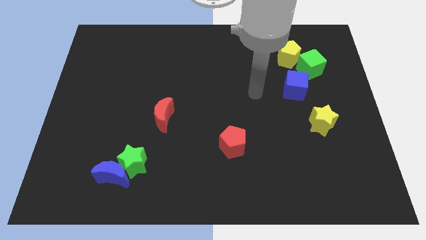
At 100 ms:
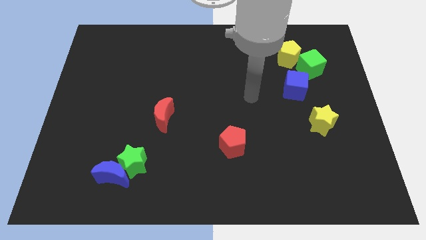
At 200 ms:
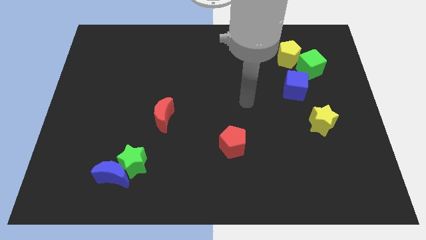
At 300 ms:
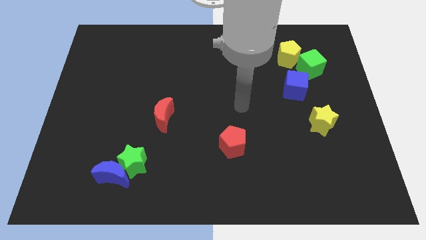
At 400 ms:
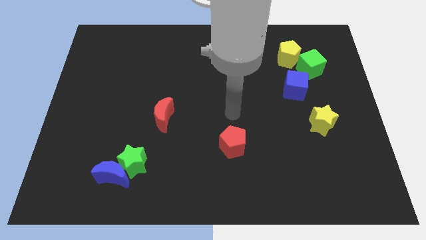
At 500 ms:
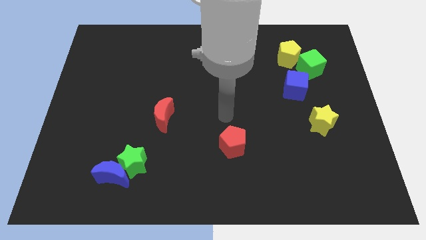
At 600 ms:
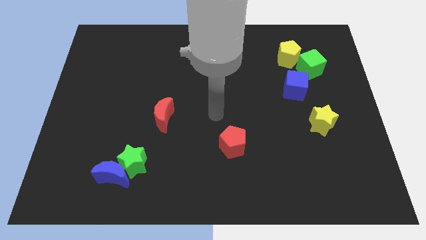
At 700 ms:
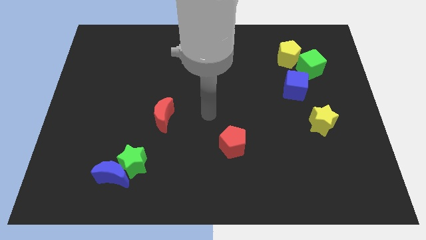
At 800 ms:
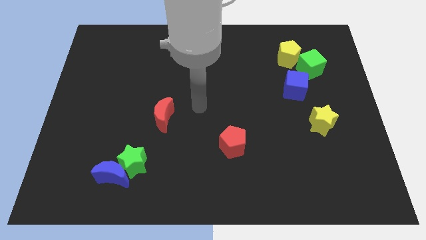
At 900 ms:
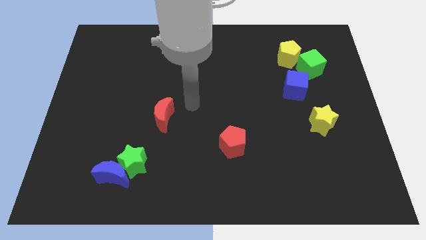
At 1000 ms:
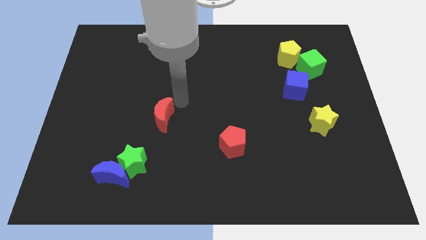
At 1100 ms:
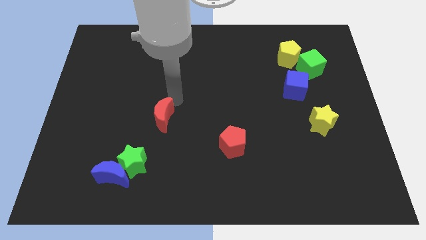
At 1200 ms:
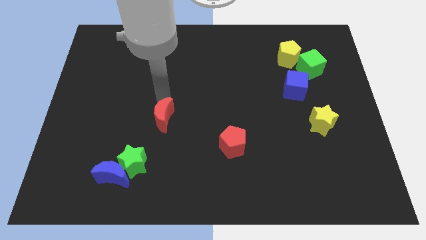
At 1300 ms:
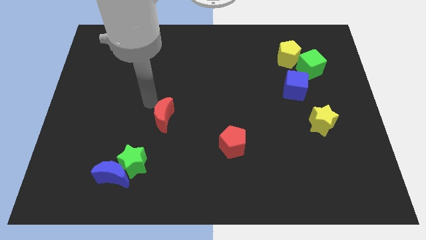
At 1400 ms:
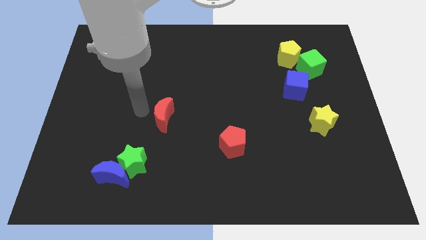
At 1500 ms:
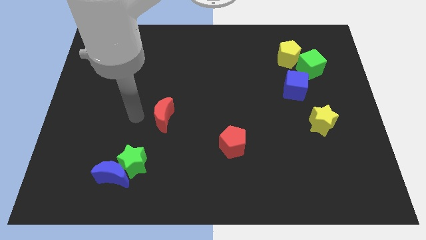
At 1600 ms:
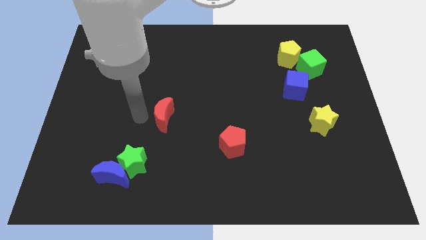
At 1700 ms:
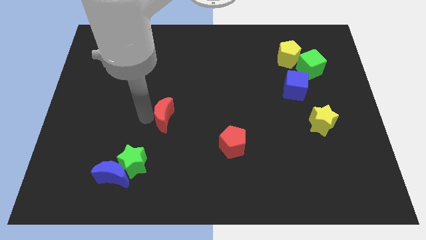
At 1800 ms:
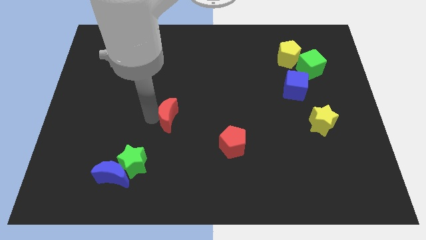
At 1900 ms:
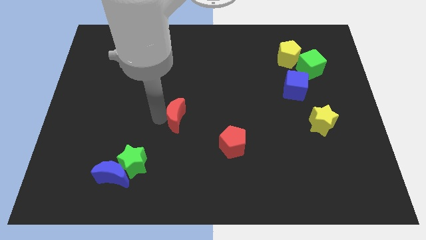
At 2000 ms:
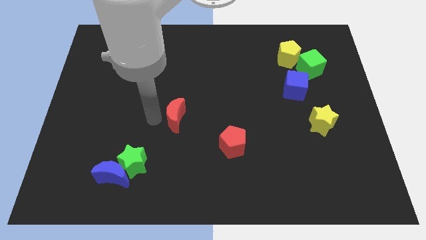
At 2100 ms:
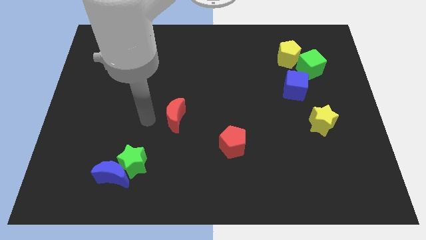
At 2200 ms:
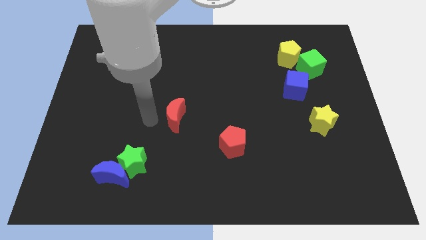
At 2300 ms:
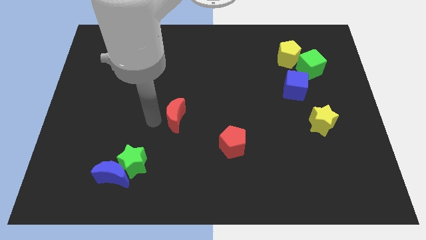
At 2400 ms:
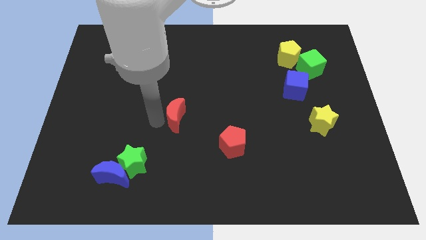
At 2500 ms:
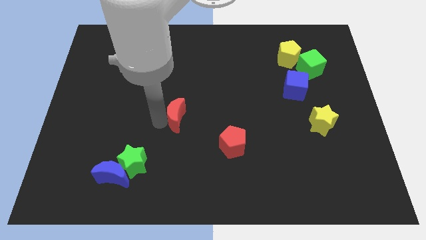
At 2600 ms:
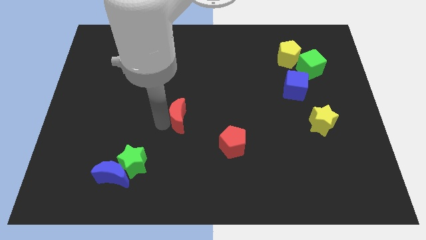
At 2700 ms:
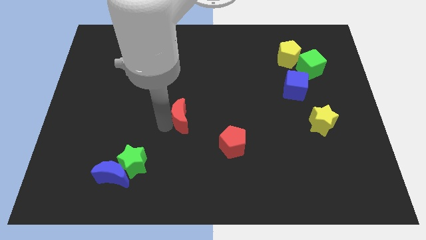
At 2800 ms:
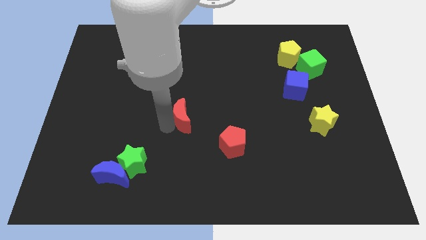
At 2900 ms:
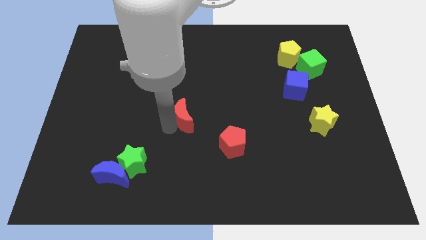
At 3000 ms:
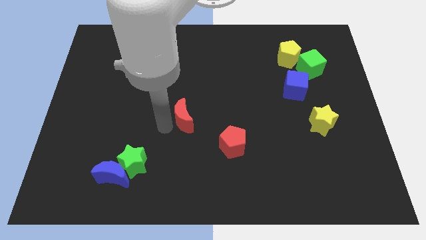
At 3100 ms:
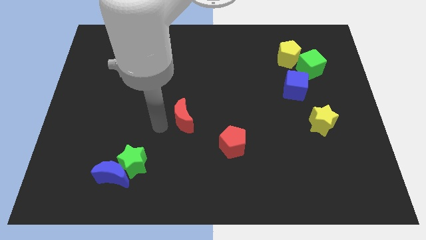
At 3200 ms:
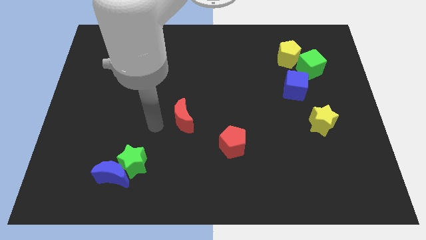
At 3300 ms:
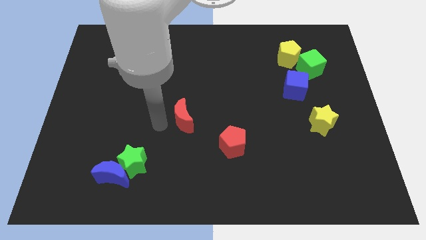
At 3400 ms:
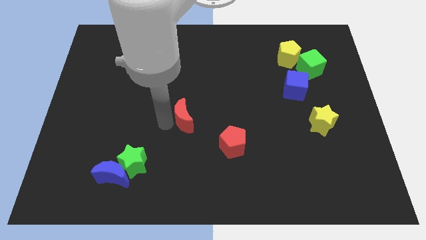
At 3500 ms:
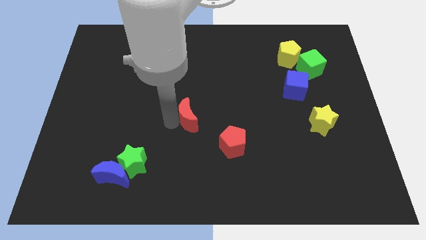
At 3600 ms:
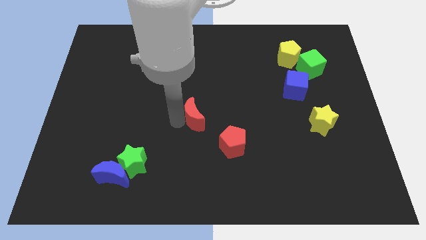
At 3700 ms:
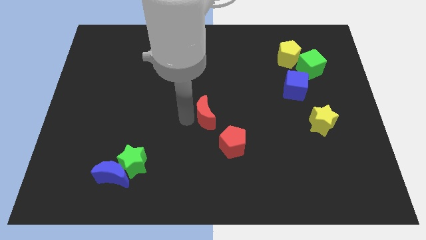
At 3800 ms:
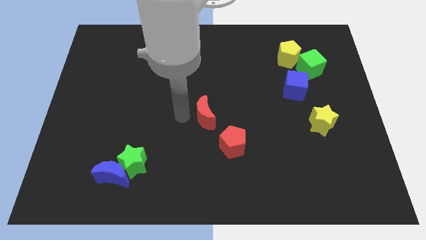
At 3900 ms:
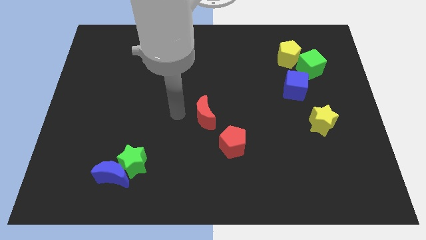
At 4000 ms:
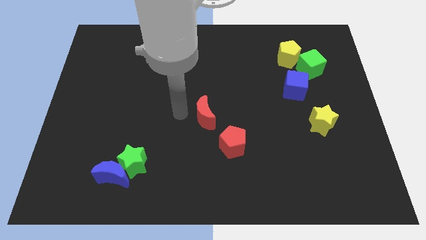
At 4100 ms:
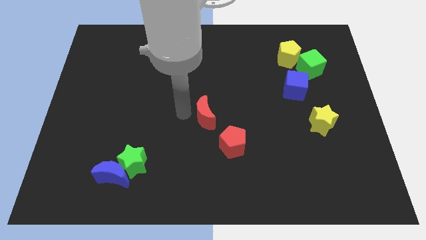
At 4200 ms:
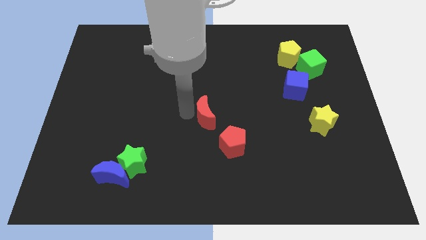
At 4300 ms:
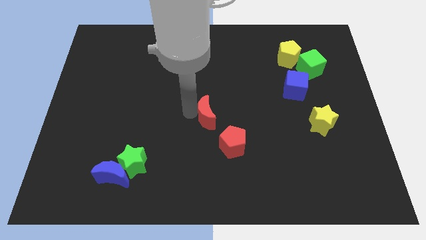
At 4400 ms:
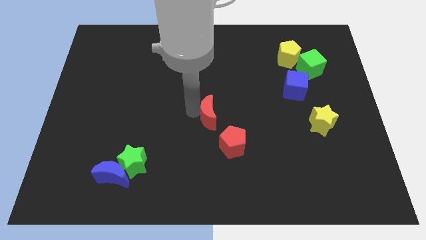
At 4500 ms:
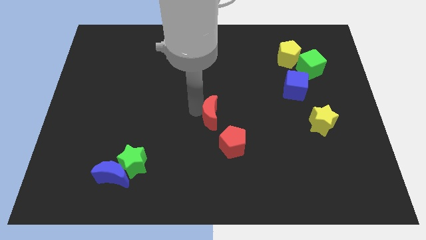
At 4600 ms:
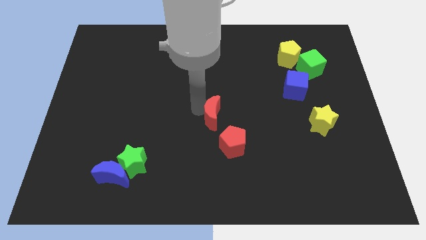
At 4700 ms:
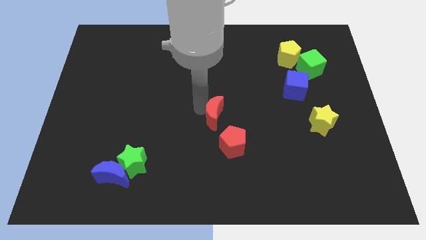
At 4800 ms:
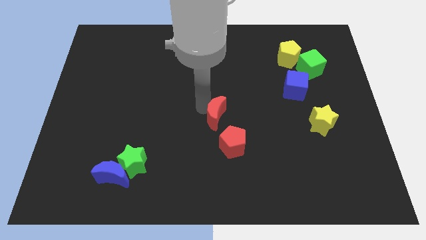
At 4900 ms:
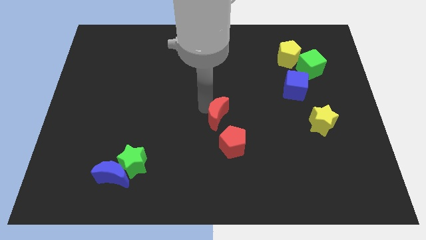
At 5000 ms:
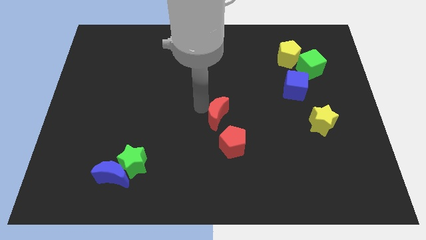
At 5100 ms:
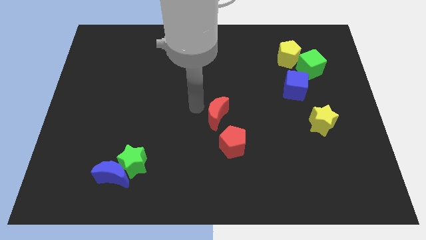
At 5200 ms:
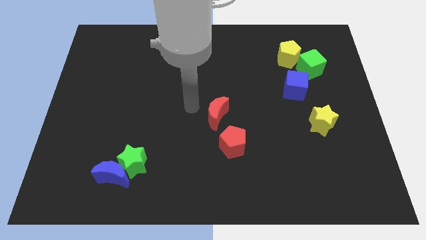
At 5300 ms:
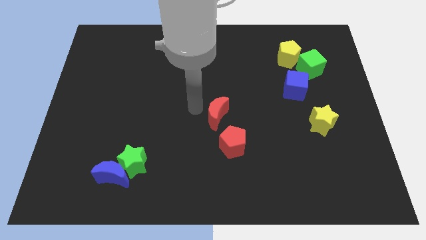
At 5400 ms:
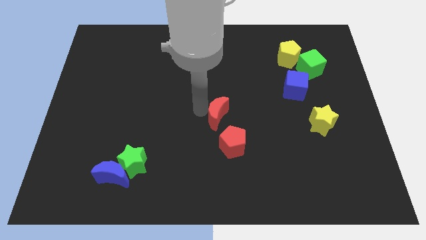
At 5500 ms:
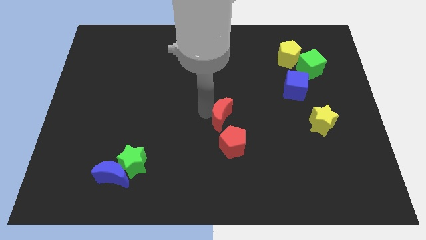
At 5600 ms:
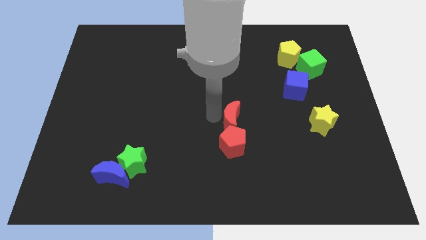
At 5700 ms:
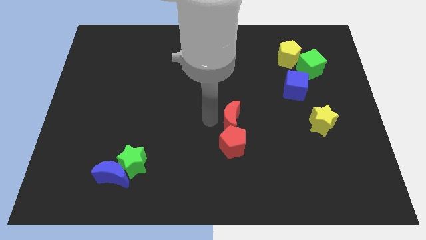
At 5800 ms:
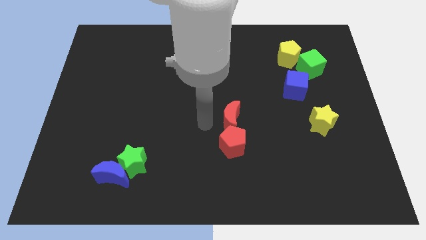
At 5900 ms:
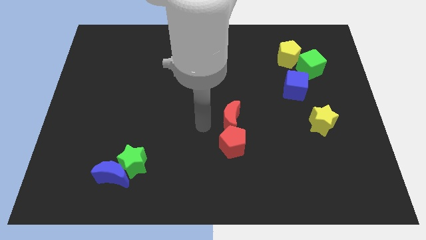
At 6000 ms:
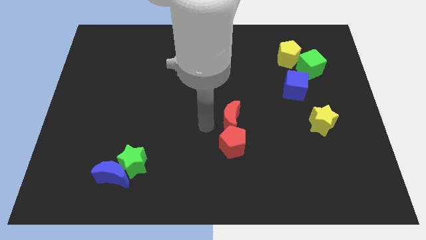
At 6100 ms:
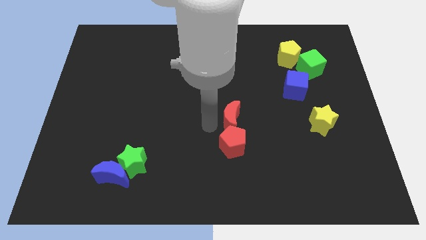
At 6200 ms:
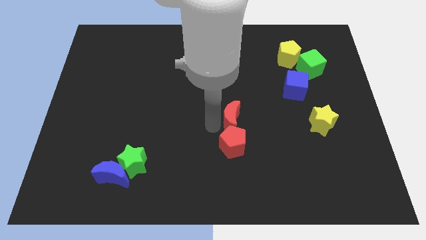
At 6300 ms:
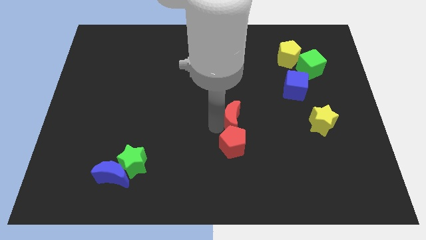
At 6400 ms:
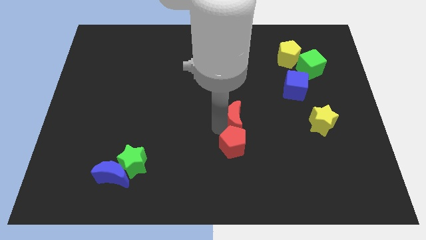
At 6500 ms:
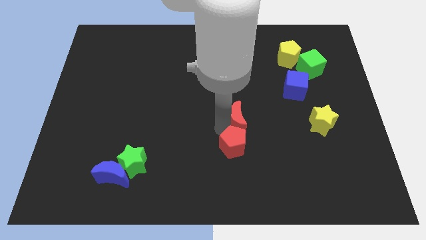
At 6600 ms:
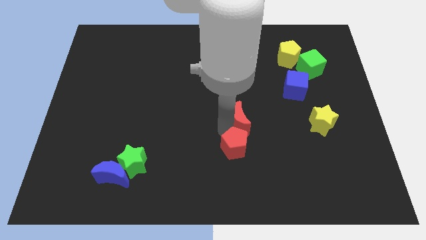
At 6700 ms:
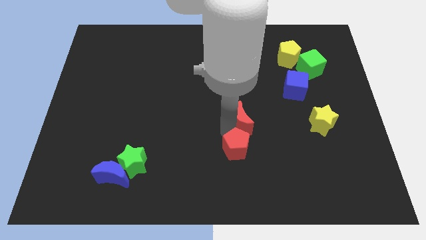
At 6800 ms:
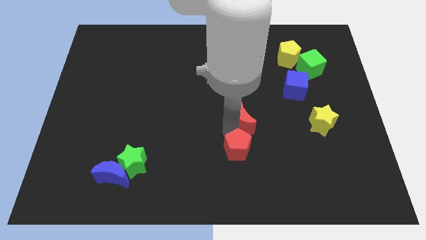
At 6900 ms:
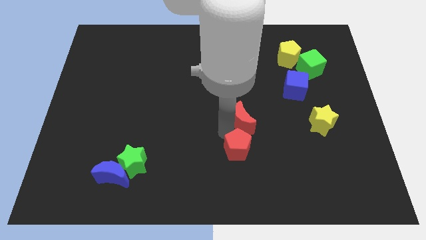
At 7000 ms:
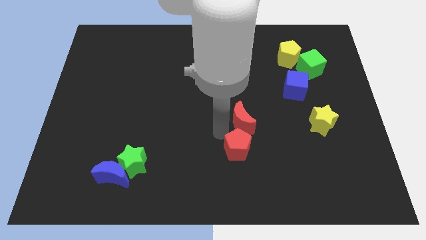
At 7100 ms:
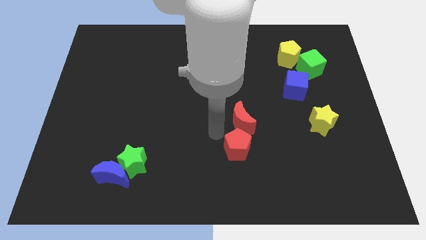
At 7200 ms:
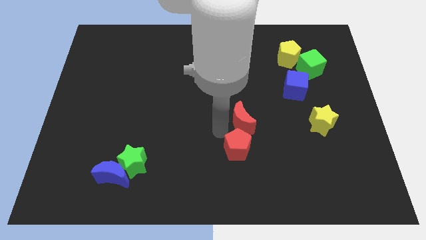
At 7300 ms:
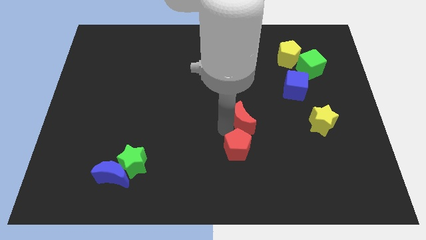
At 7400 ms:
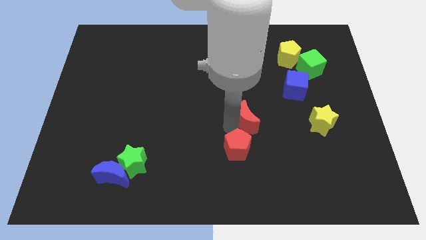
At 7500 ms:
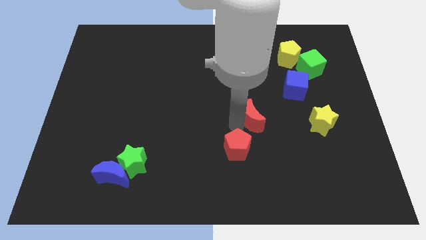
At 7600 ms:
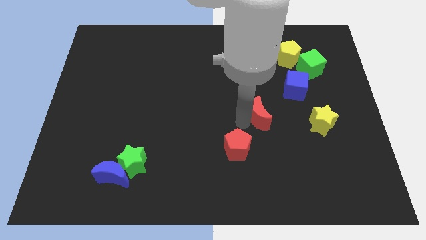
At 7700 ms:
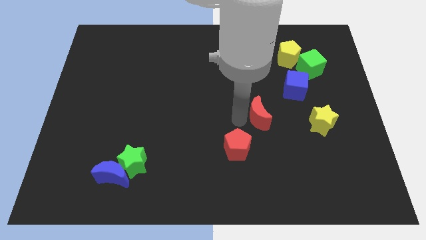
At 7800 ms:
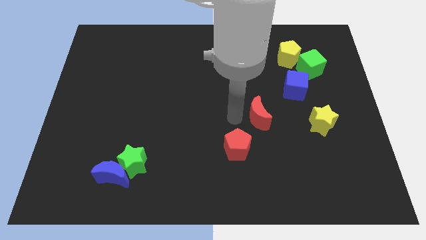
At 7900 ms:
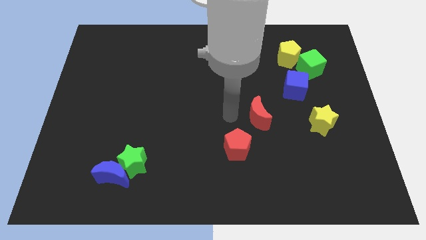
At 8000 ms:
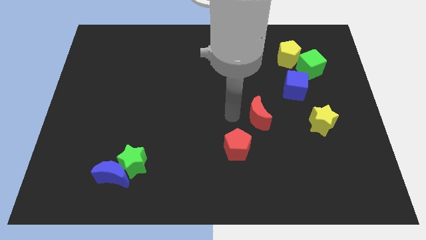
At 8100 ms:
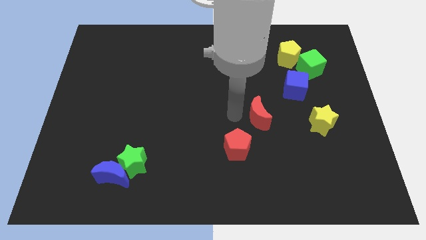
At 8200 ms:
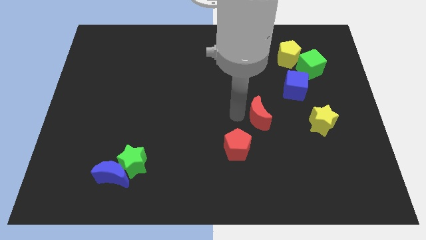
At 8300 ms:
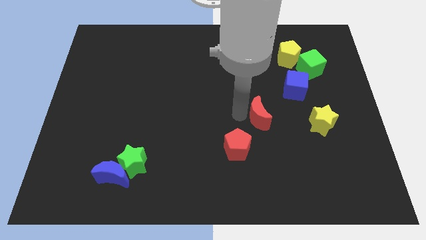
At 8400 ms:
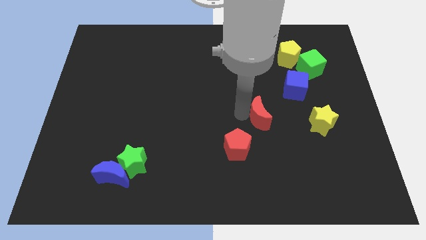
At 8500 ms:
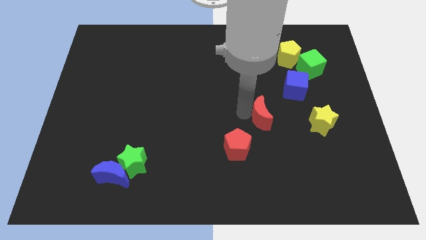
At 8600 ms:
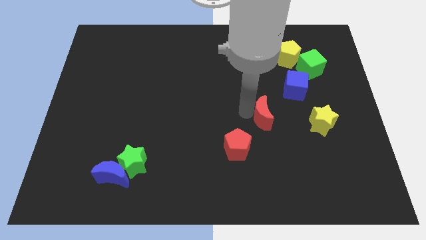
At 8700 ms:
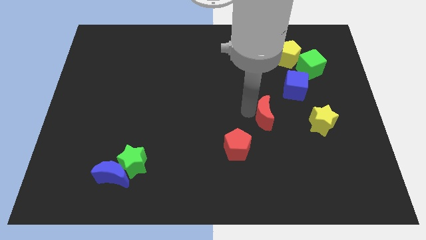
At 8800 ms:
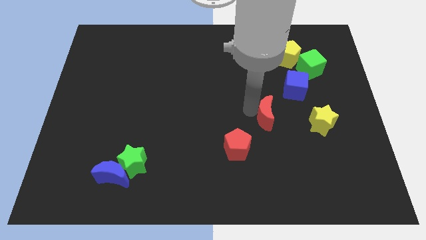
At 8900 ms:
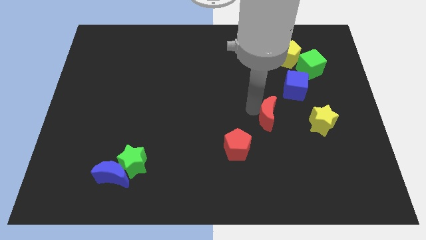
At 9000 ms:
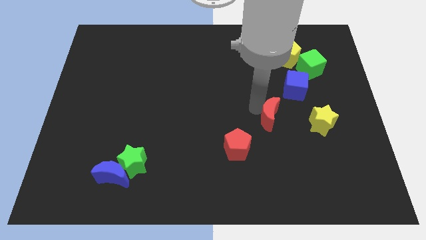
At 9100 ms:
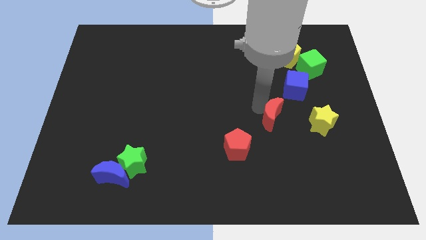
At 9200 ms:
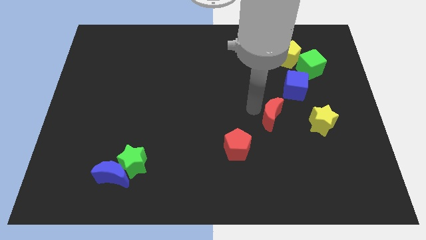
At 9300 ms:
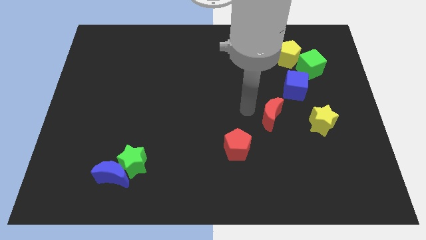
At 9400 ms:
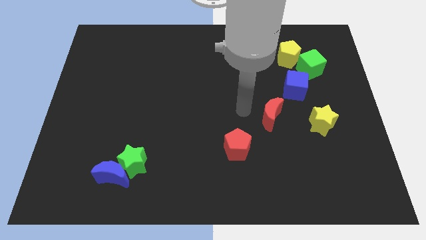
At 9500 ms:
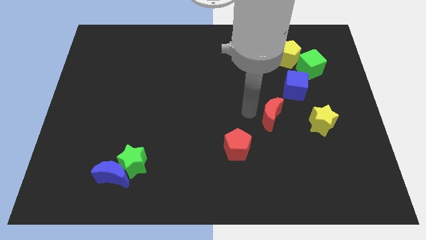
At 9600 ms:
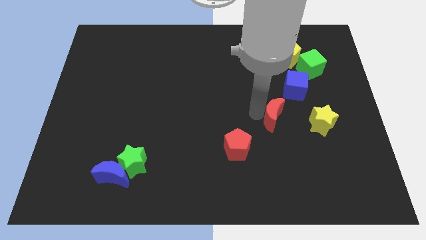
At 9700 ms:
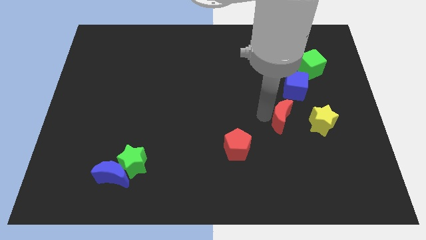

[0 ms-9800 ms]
move the red moon to the bottom of the blue cube
